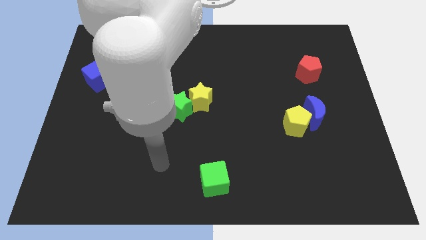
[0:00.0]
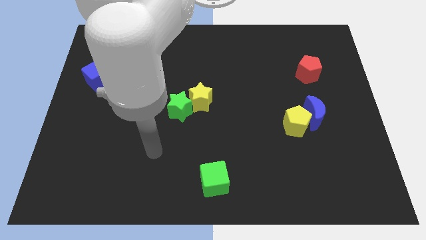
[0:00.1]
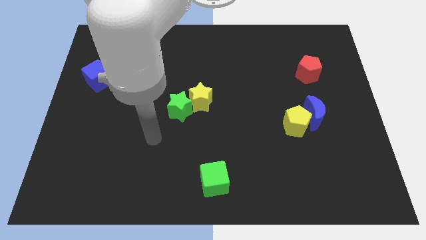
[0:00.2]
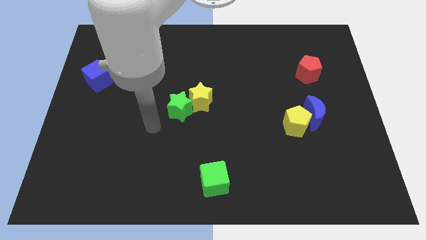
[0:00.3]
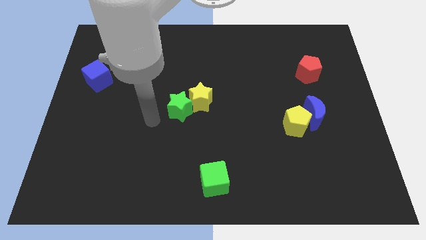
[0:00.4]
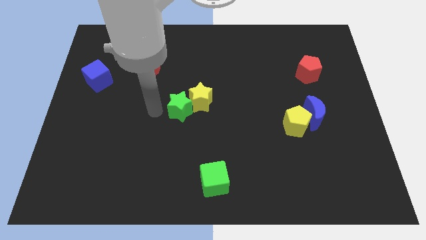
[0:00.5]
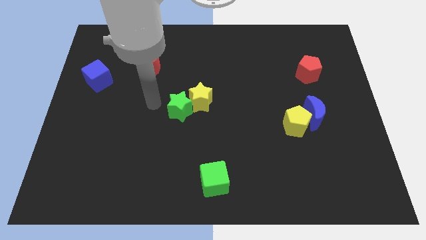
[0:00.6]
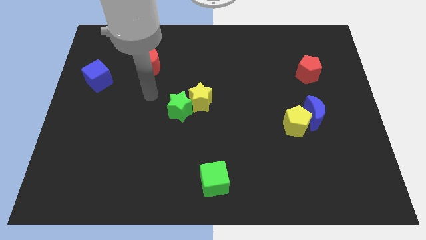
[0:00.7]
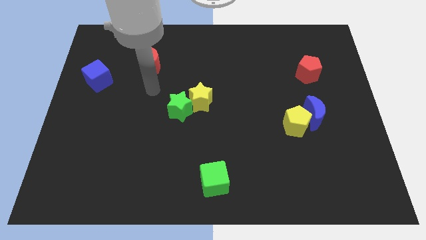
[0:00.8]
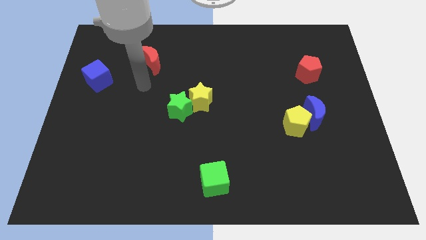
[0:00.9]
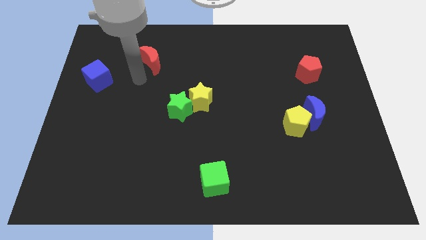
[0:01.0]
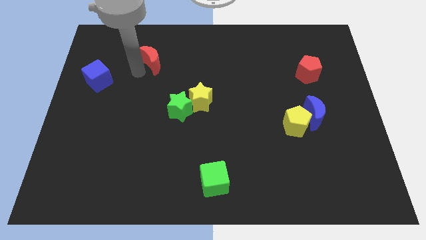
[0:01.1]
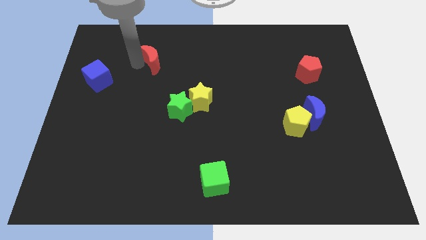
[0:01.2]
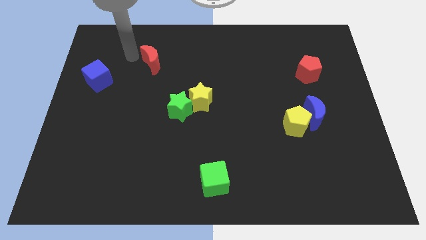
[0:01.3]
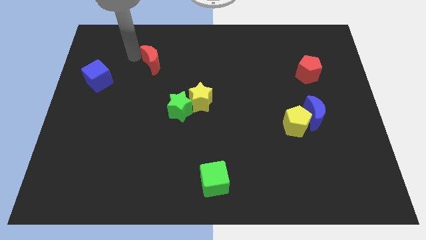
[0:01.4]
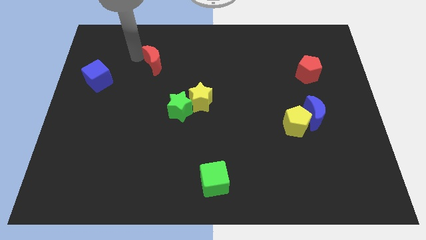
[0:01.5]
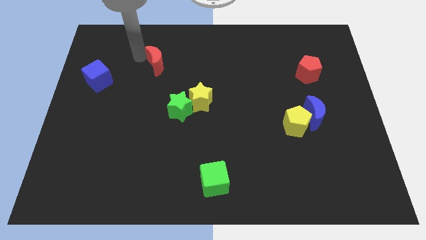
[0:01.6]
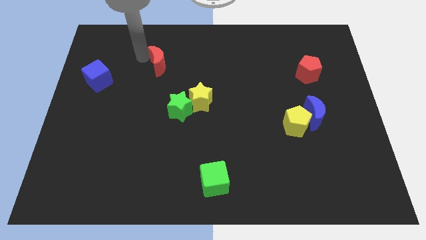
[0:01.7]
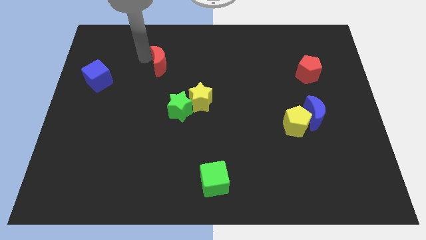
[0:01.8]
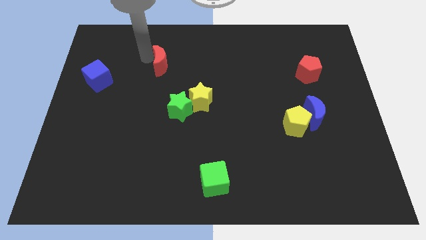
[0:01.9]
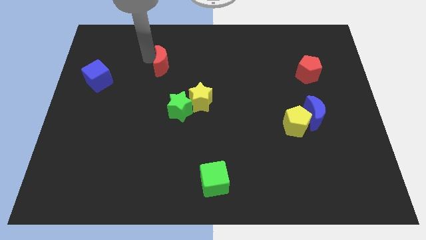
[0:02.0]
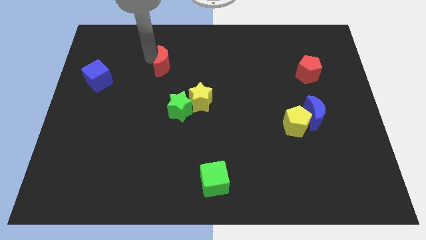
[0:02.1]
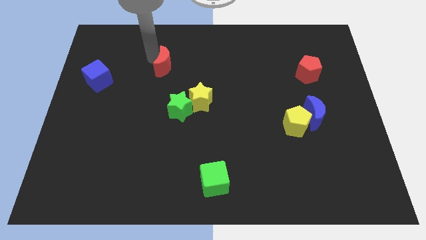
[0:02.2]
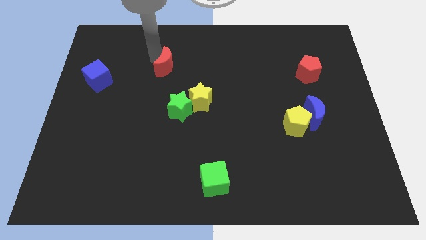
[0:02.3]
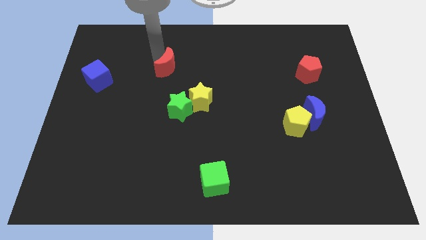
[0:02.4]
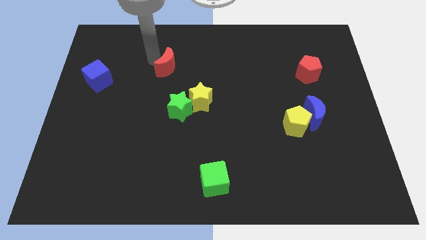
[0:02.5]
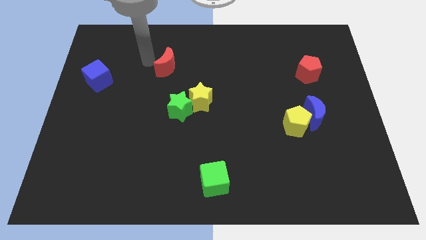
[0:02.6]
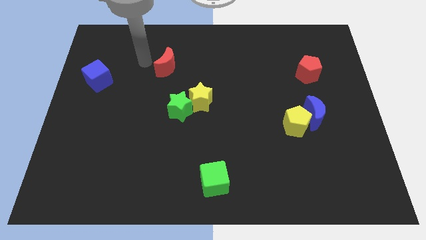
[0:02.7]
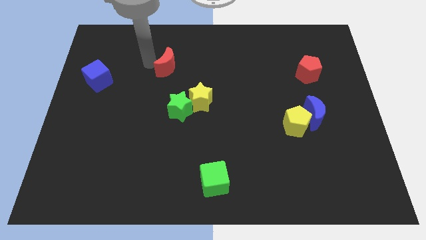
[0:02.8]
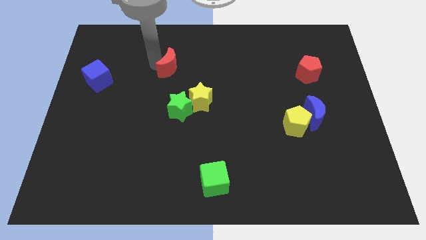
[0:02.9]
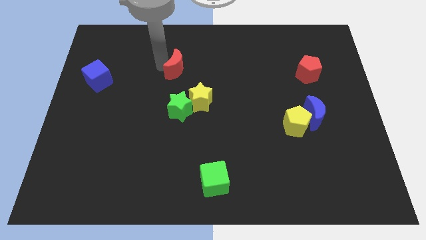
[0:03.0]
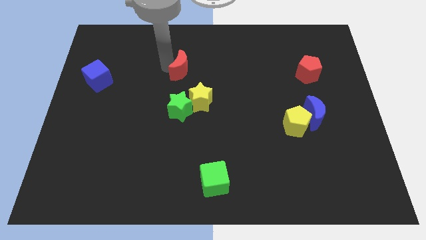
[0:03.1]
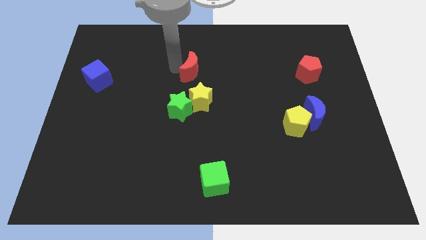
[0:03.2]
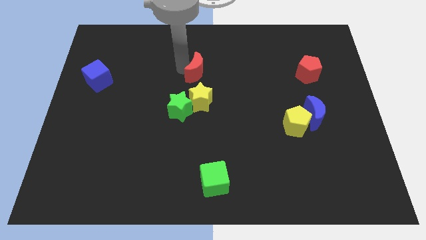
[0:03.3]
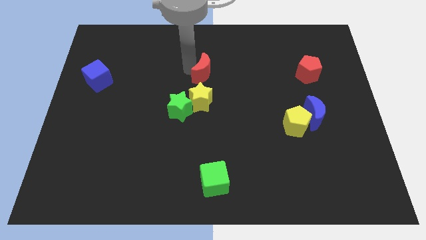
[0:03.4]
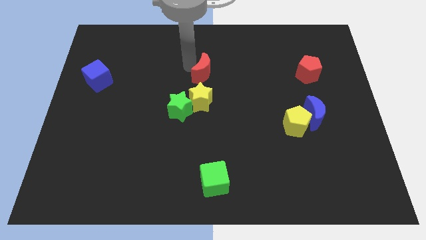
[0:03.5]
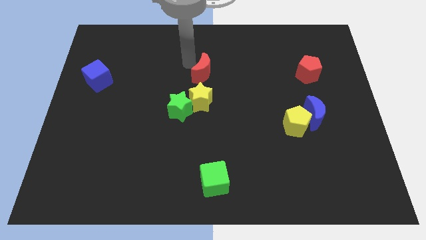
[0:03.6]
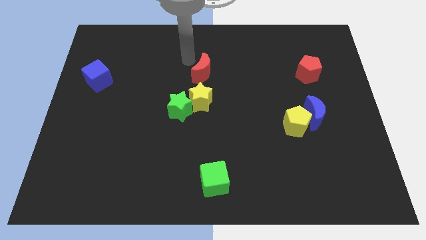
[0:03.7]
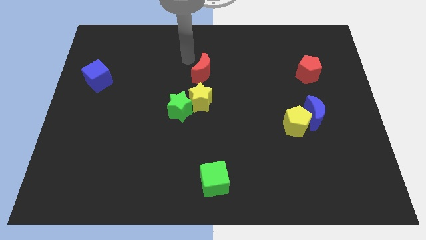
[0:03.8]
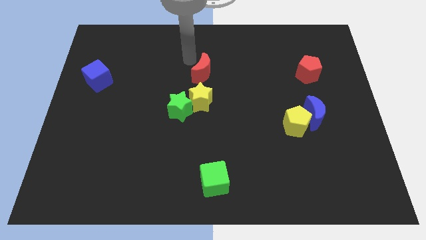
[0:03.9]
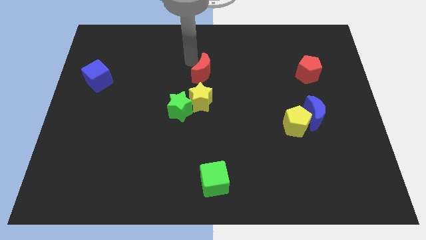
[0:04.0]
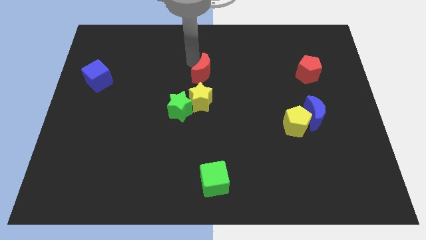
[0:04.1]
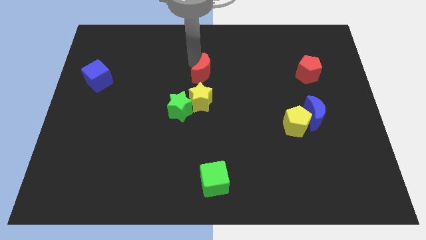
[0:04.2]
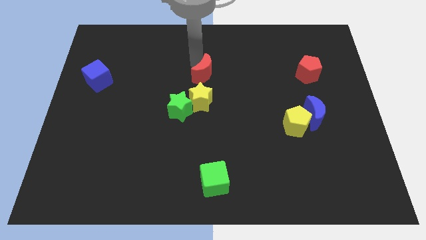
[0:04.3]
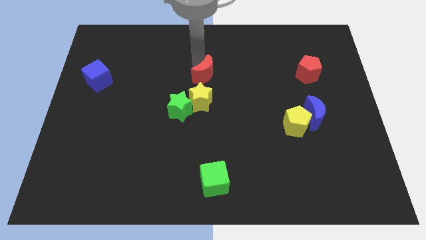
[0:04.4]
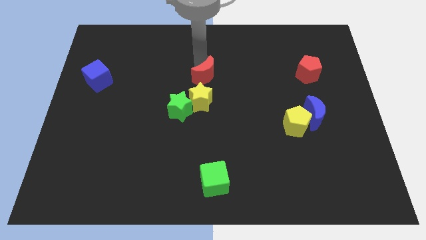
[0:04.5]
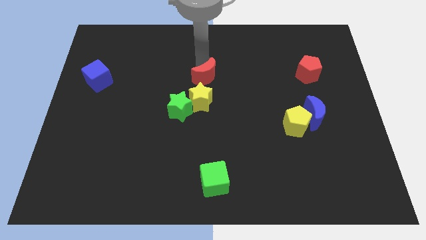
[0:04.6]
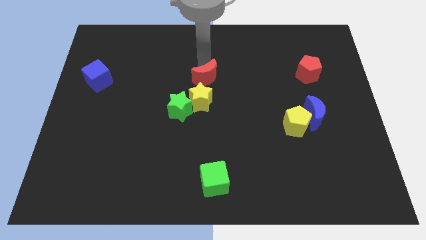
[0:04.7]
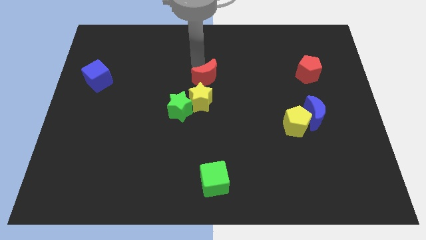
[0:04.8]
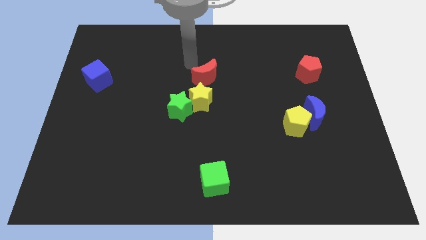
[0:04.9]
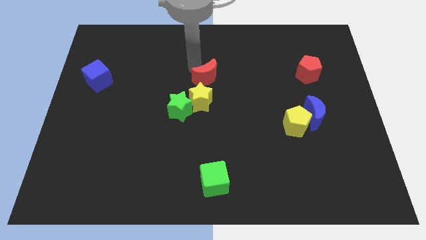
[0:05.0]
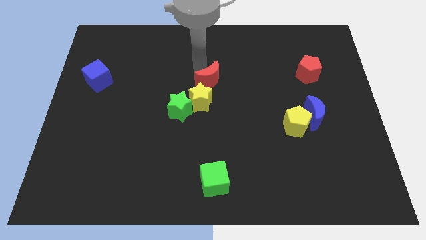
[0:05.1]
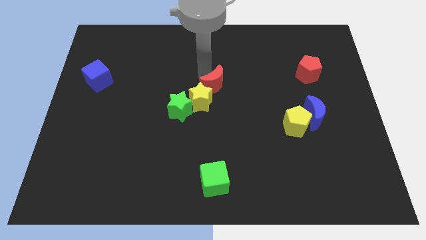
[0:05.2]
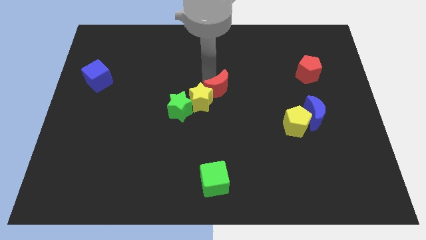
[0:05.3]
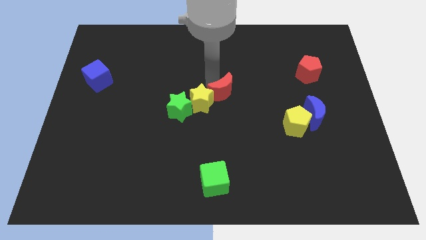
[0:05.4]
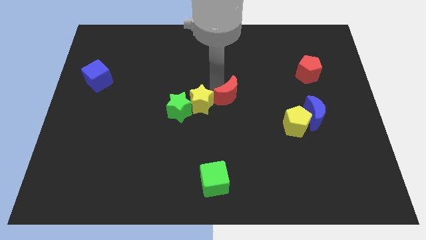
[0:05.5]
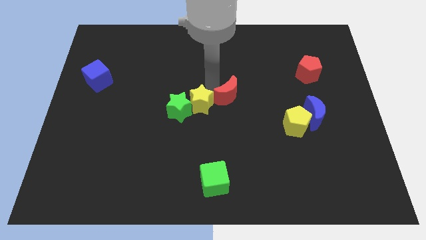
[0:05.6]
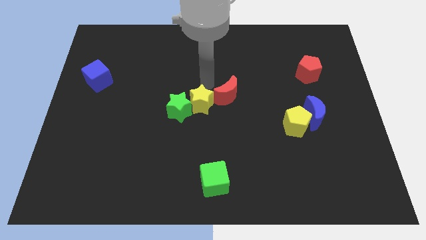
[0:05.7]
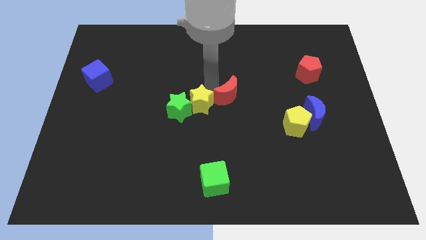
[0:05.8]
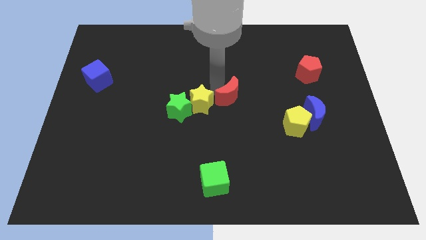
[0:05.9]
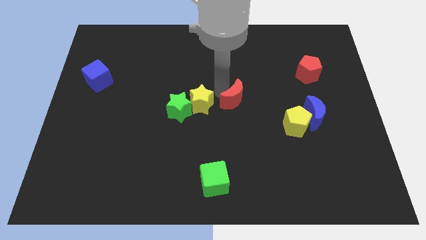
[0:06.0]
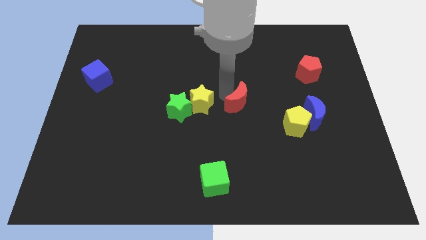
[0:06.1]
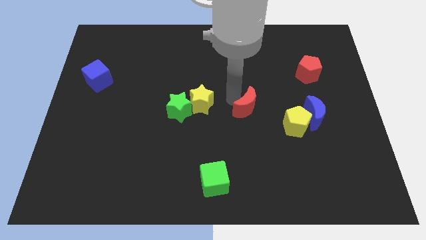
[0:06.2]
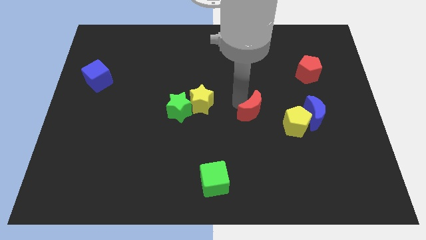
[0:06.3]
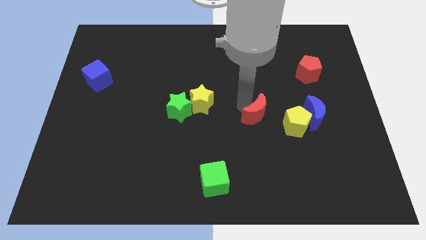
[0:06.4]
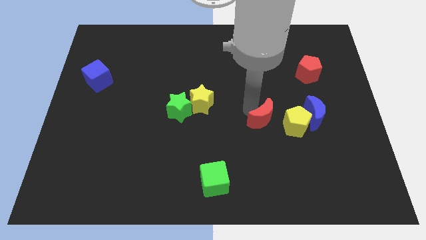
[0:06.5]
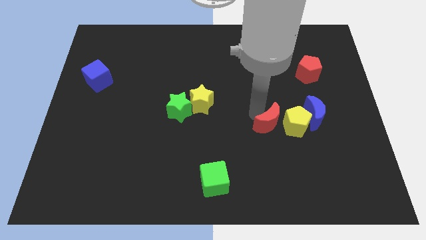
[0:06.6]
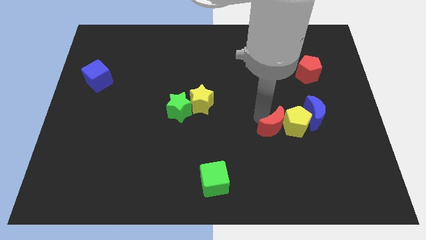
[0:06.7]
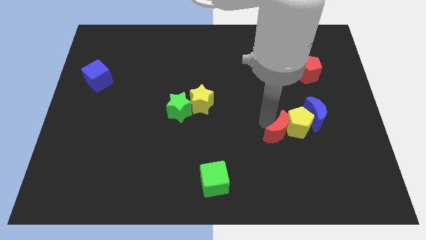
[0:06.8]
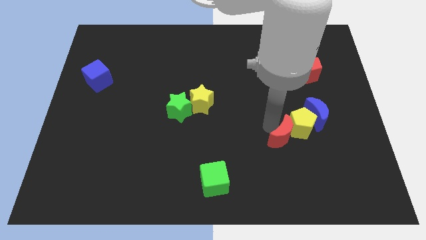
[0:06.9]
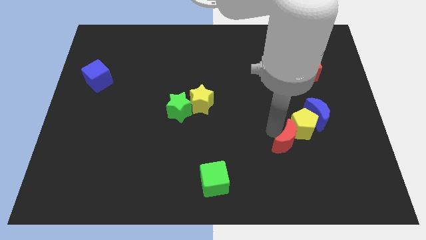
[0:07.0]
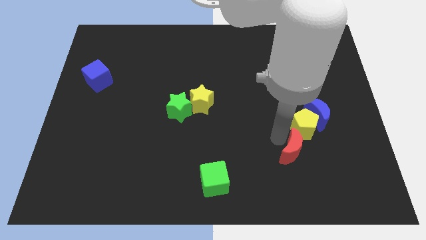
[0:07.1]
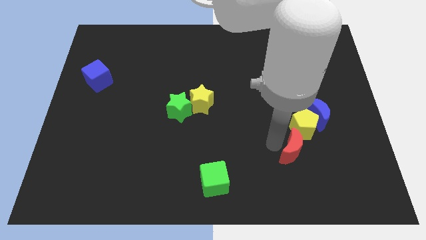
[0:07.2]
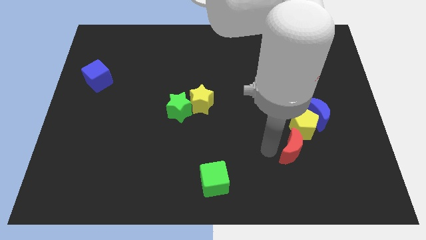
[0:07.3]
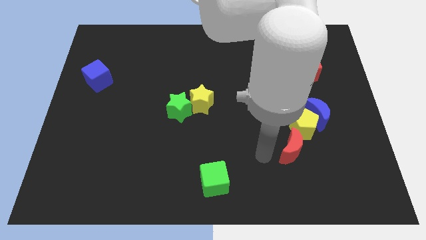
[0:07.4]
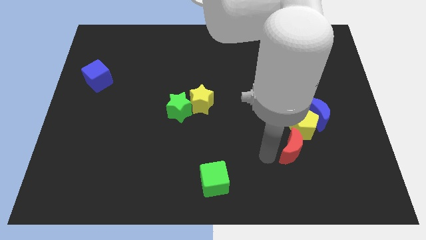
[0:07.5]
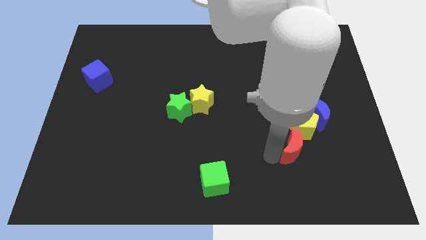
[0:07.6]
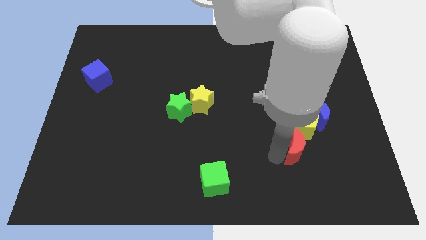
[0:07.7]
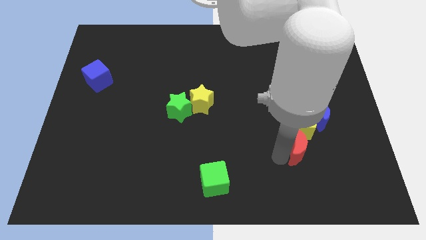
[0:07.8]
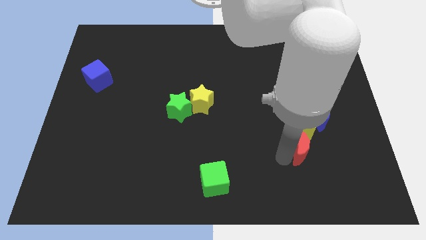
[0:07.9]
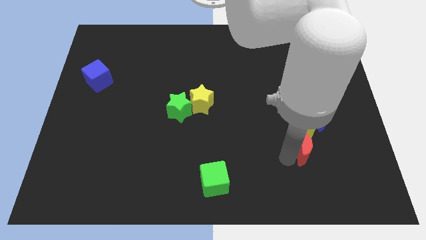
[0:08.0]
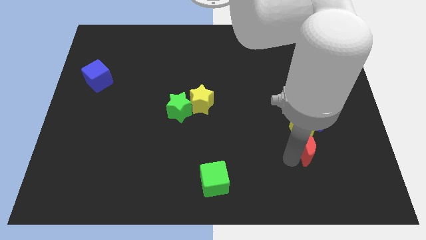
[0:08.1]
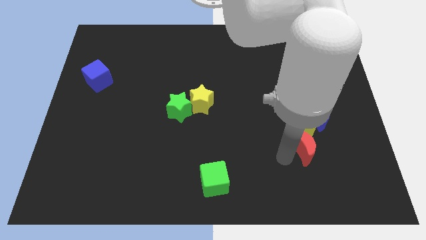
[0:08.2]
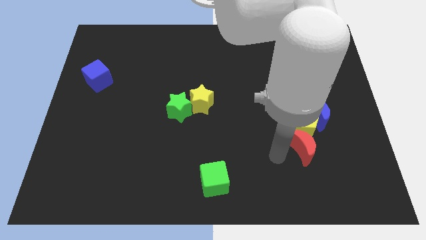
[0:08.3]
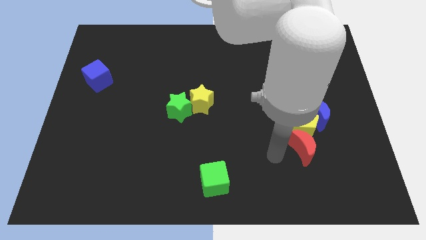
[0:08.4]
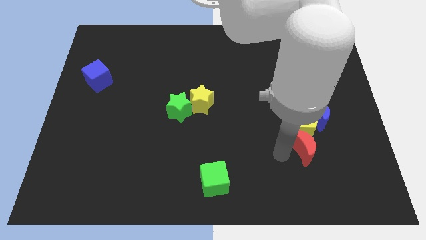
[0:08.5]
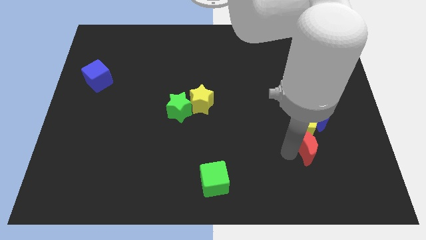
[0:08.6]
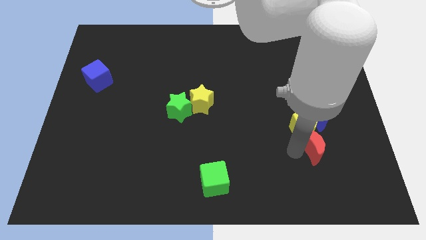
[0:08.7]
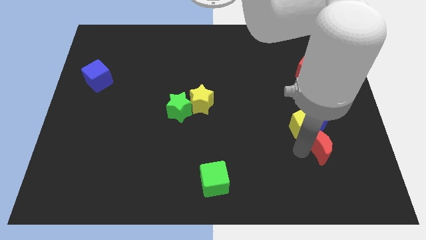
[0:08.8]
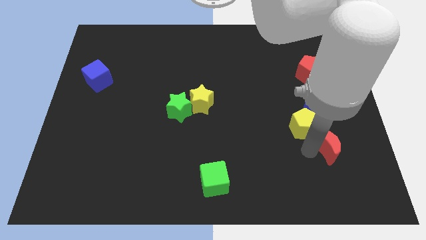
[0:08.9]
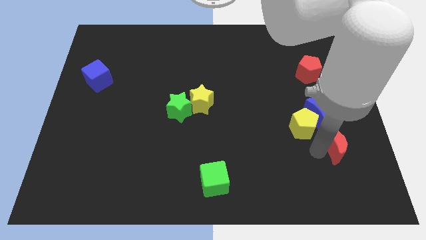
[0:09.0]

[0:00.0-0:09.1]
move the red moon to the bottom right side of the blue moon
